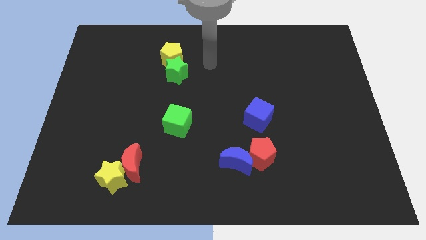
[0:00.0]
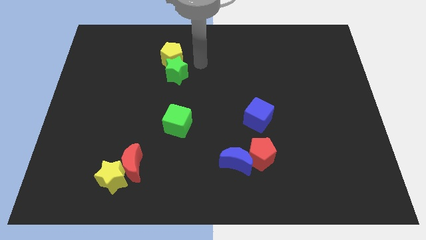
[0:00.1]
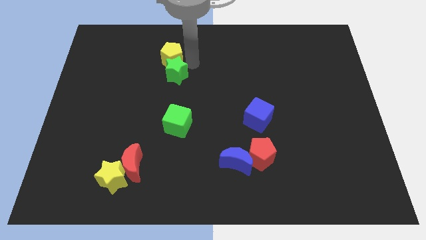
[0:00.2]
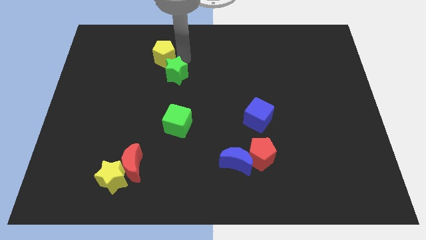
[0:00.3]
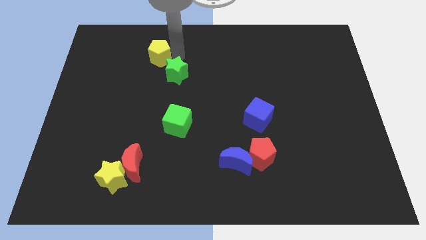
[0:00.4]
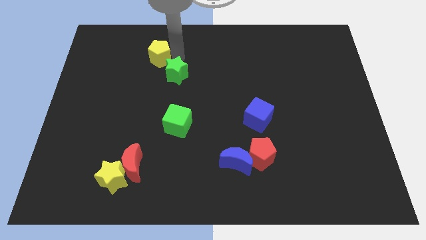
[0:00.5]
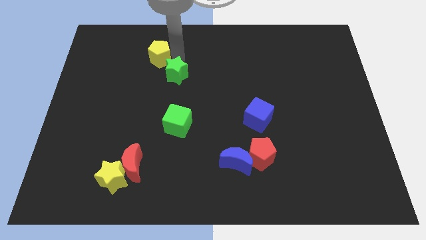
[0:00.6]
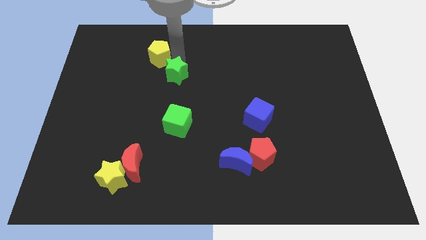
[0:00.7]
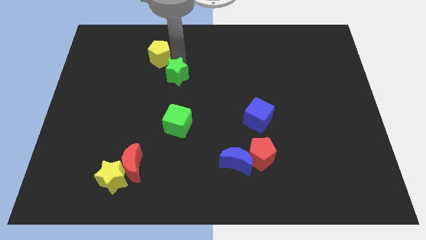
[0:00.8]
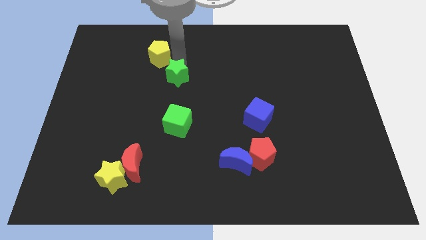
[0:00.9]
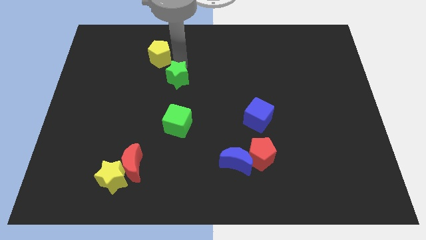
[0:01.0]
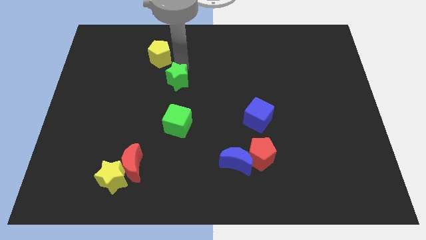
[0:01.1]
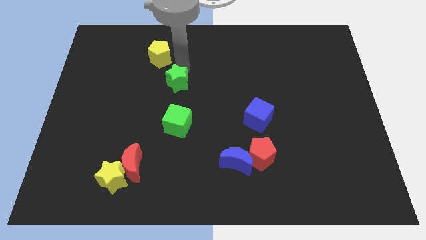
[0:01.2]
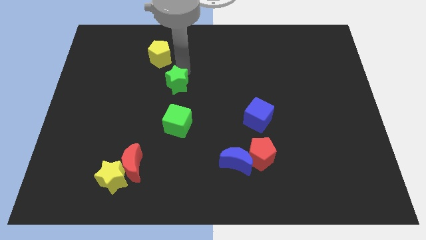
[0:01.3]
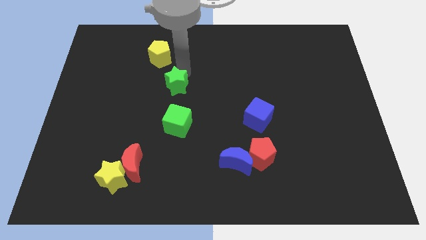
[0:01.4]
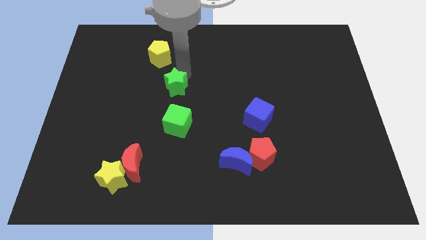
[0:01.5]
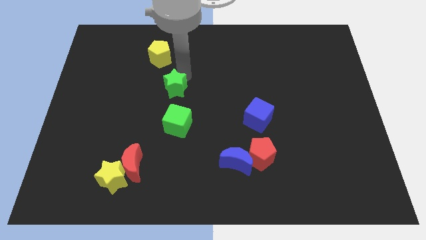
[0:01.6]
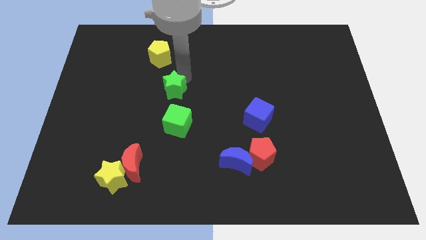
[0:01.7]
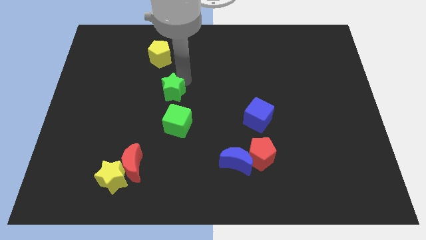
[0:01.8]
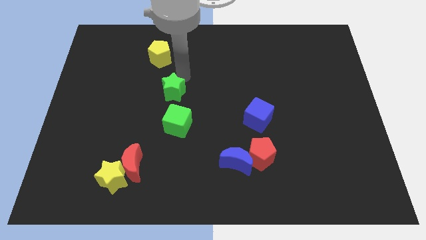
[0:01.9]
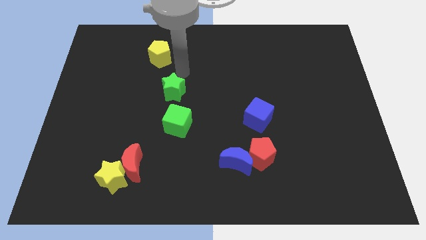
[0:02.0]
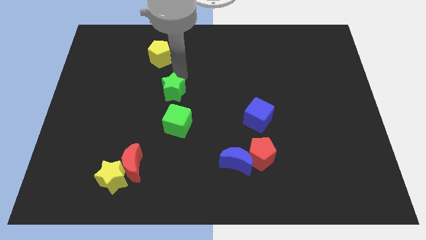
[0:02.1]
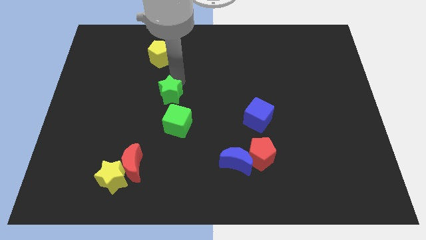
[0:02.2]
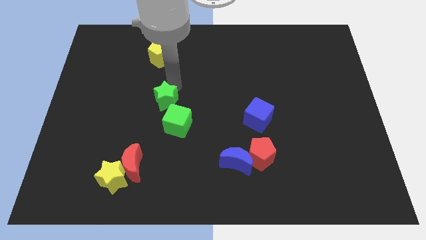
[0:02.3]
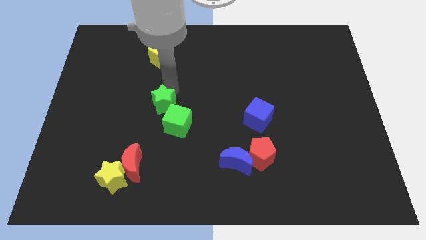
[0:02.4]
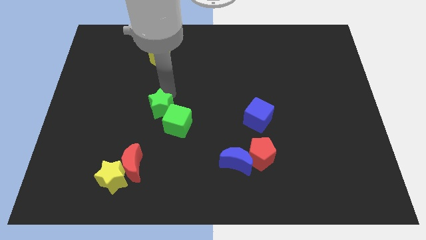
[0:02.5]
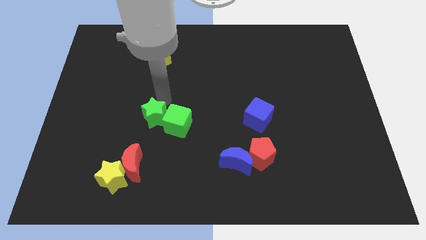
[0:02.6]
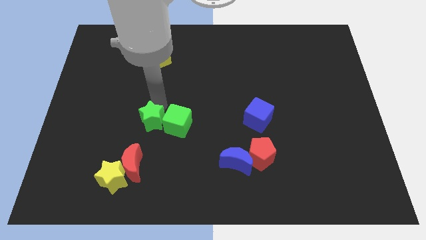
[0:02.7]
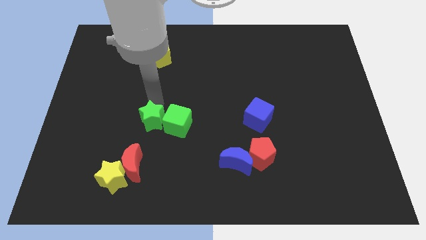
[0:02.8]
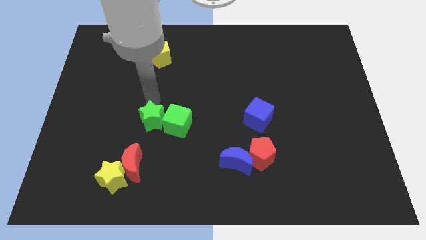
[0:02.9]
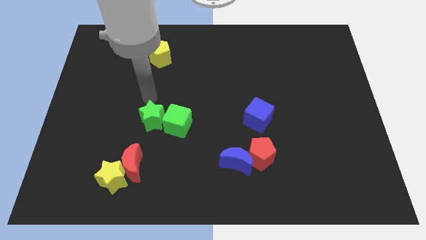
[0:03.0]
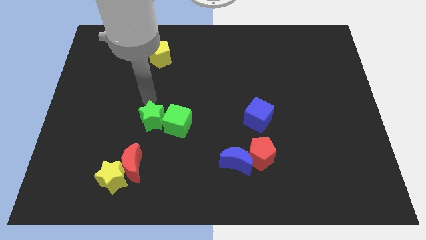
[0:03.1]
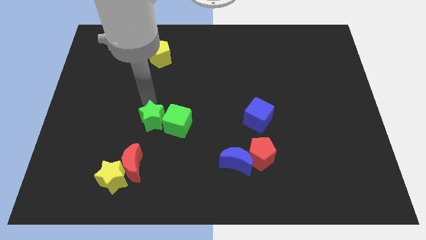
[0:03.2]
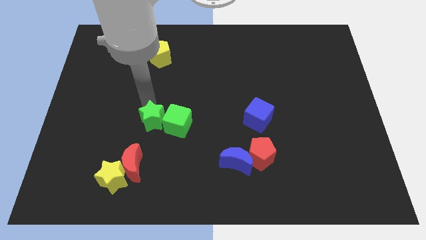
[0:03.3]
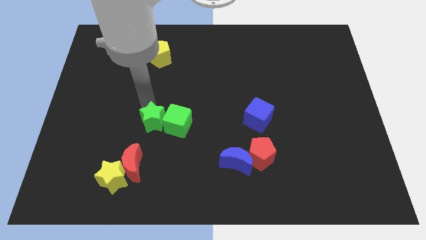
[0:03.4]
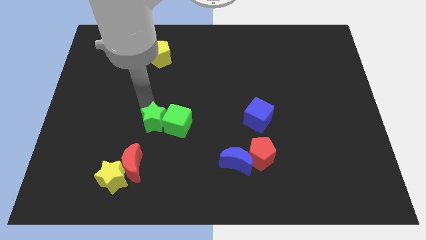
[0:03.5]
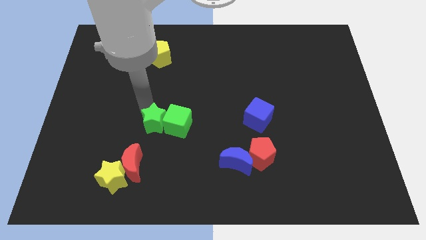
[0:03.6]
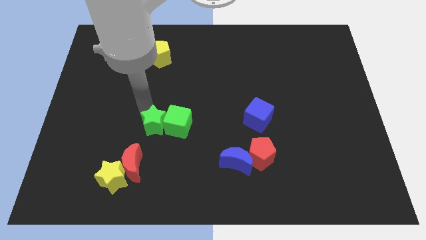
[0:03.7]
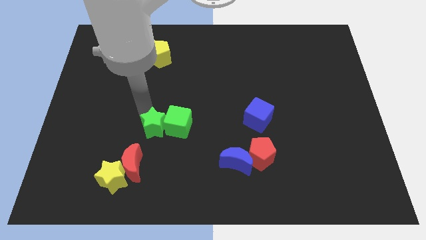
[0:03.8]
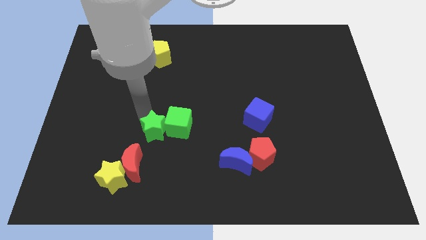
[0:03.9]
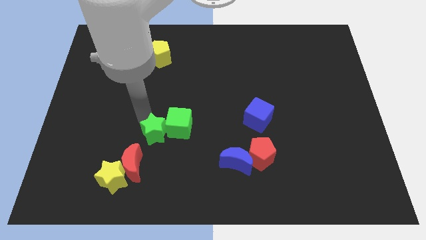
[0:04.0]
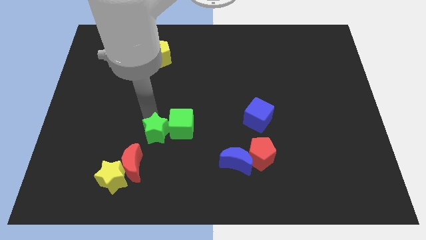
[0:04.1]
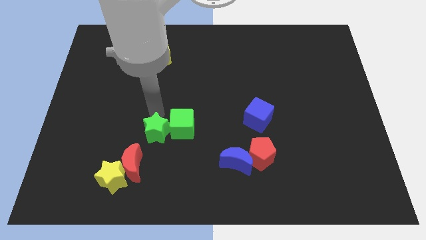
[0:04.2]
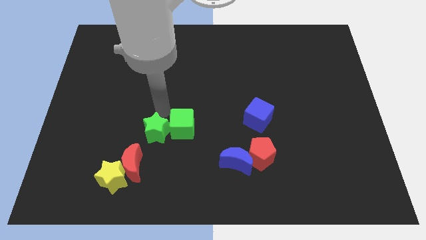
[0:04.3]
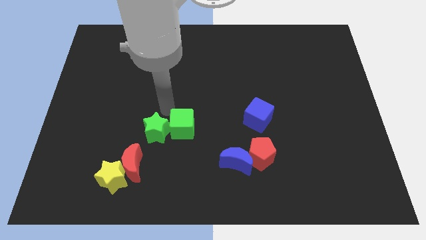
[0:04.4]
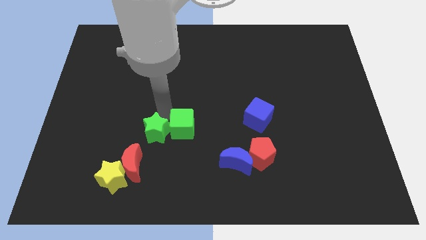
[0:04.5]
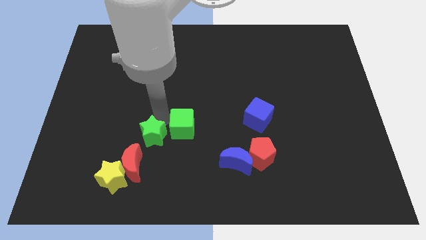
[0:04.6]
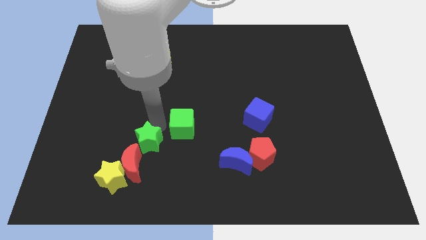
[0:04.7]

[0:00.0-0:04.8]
push the green star to the top right side of the yellow star

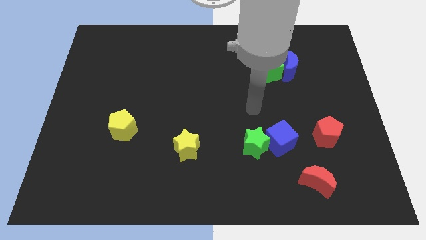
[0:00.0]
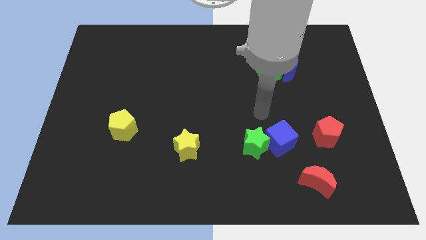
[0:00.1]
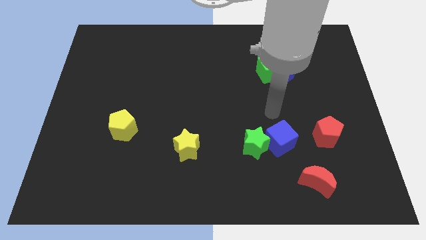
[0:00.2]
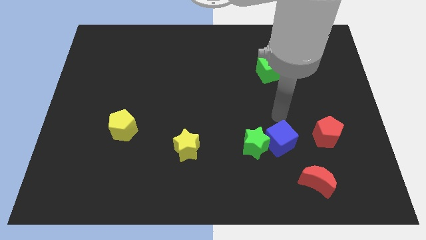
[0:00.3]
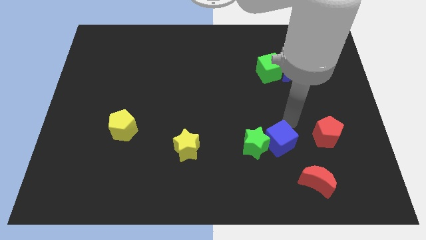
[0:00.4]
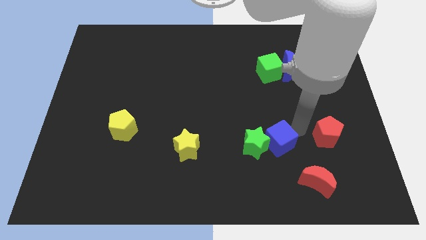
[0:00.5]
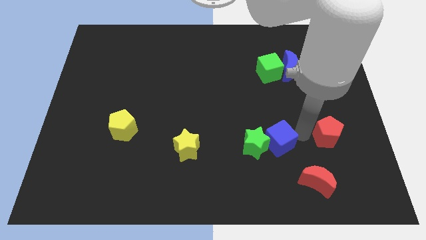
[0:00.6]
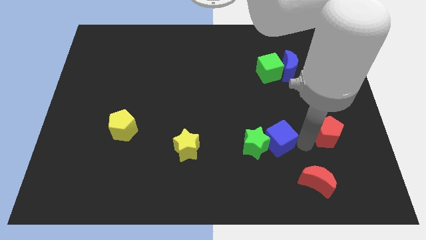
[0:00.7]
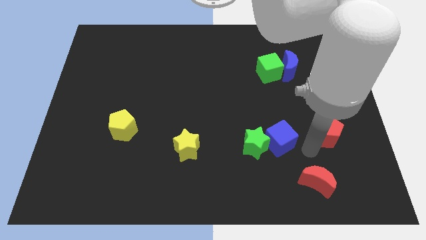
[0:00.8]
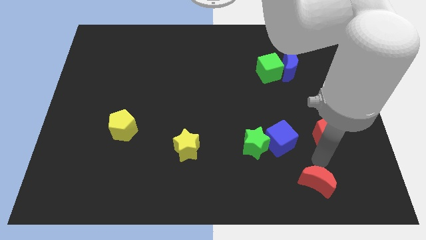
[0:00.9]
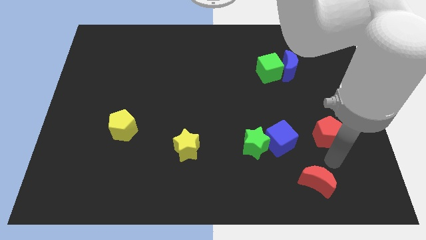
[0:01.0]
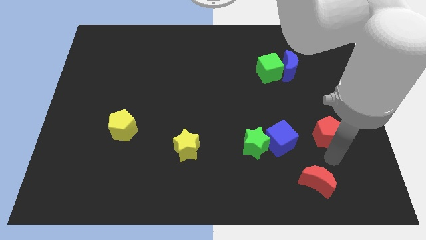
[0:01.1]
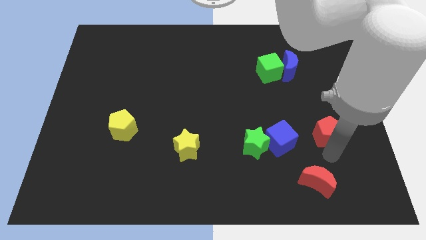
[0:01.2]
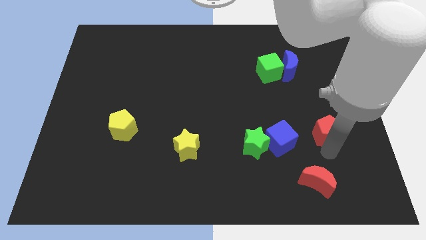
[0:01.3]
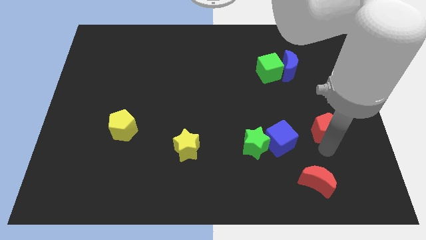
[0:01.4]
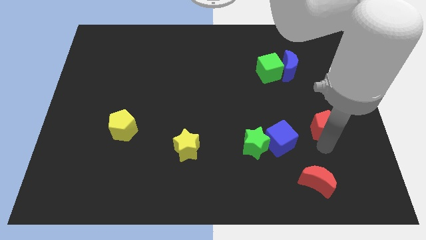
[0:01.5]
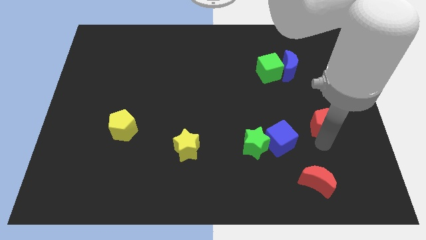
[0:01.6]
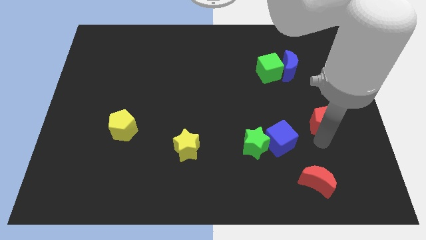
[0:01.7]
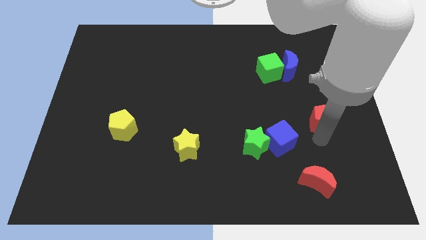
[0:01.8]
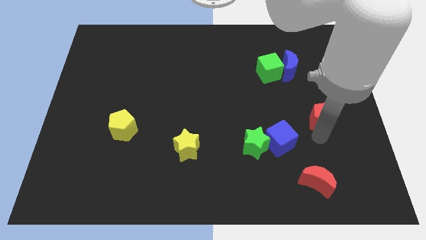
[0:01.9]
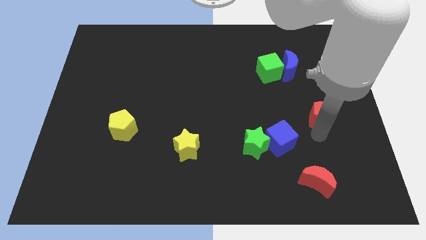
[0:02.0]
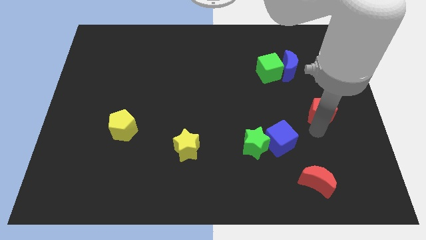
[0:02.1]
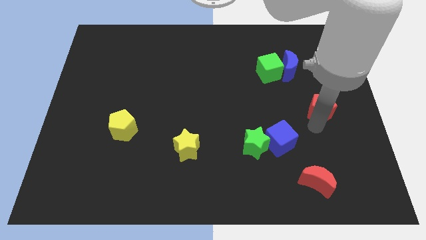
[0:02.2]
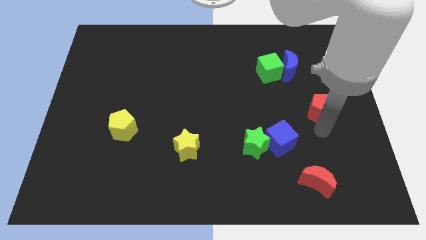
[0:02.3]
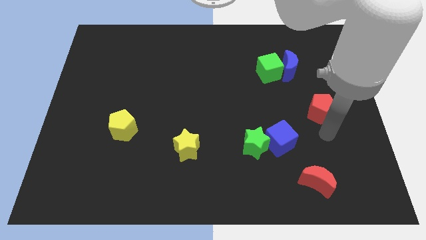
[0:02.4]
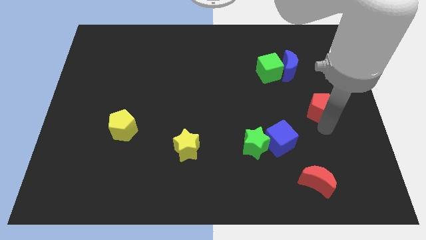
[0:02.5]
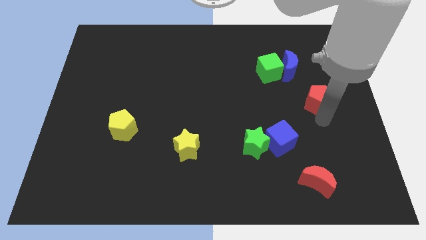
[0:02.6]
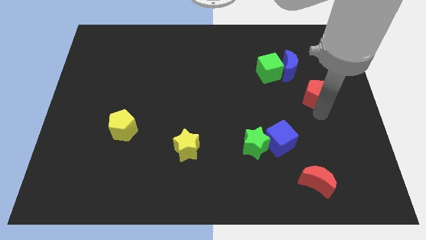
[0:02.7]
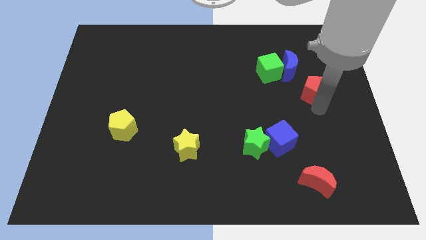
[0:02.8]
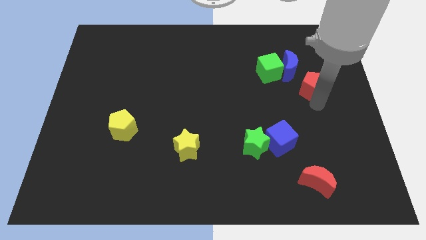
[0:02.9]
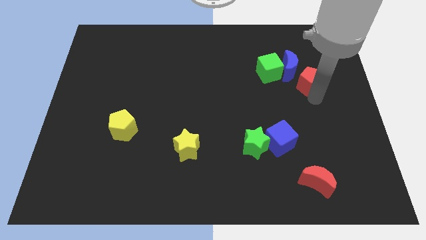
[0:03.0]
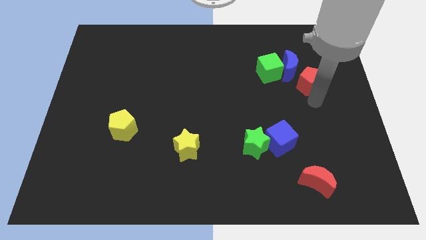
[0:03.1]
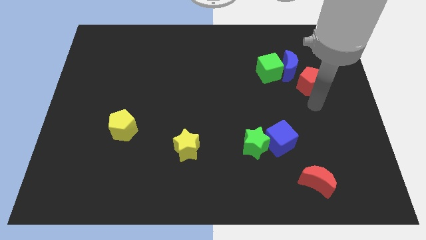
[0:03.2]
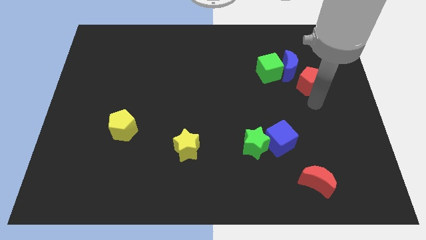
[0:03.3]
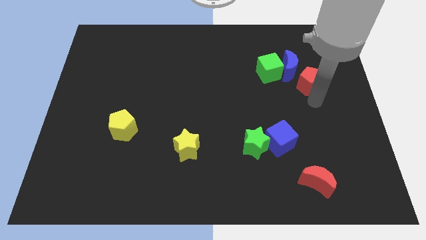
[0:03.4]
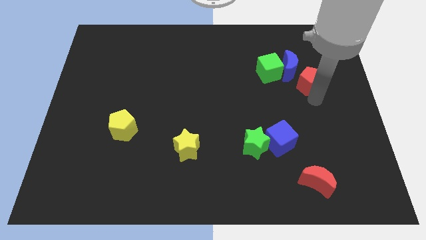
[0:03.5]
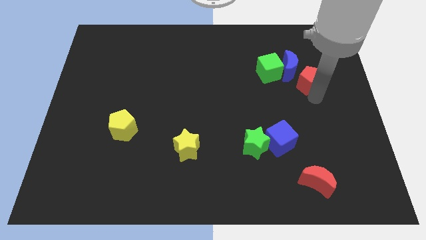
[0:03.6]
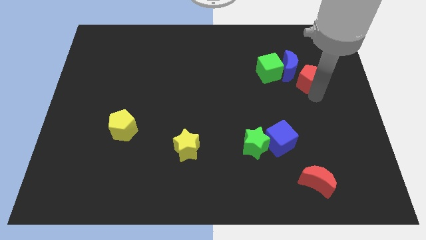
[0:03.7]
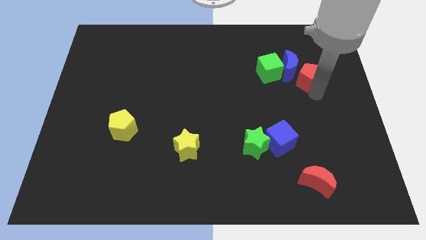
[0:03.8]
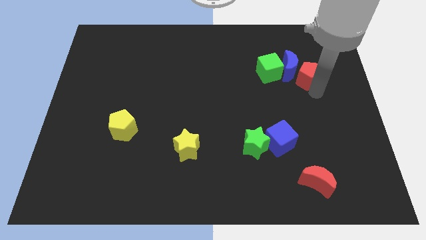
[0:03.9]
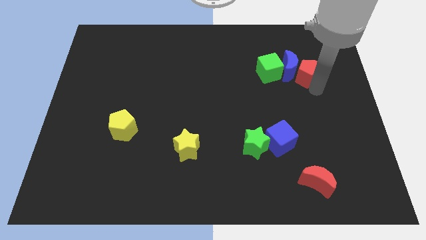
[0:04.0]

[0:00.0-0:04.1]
put the red pentagon diagonally up and to the right of the blue moon
